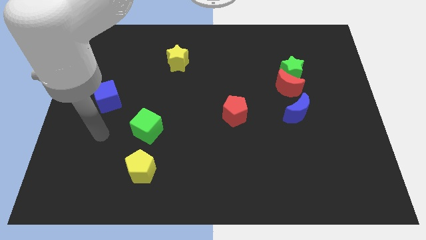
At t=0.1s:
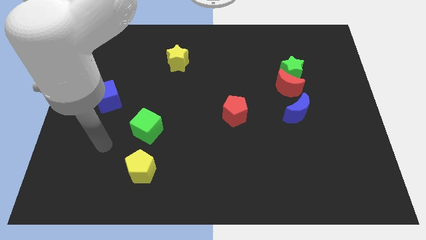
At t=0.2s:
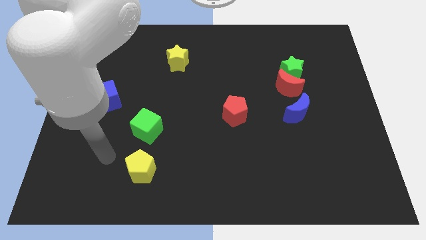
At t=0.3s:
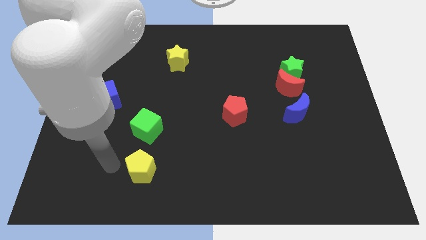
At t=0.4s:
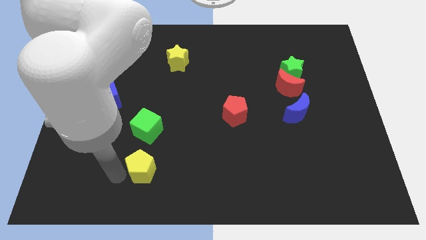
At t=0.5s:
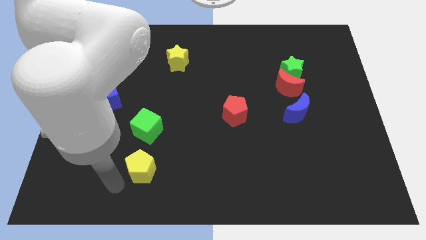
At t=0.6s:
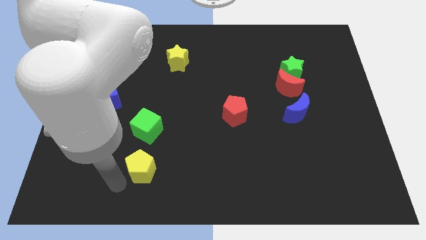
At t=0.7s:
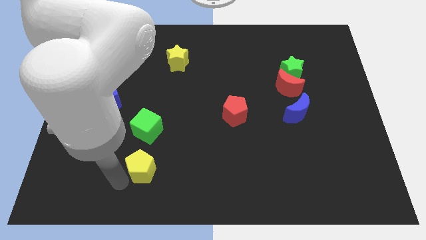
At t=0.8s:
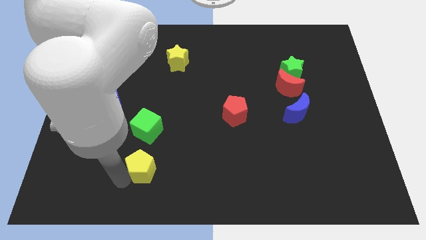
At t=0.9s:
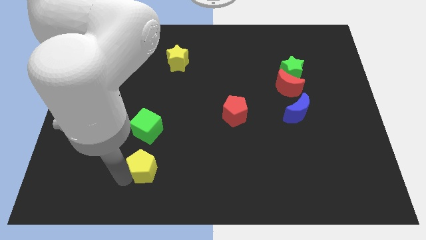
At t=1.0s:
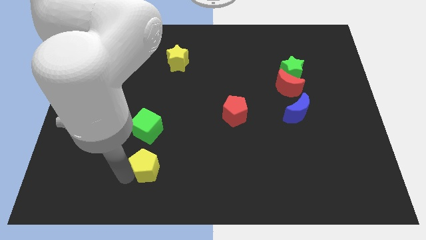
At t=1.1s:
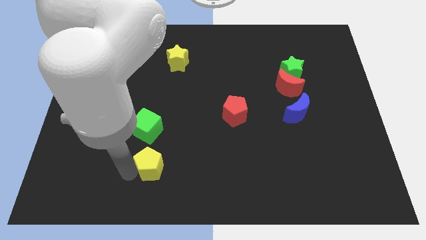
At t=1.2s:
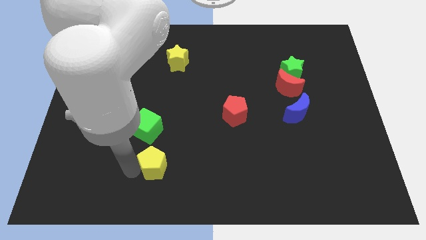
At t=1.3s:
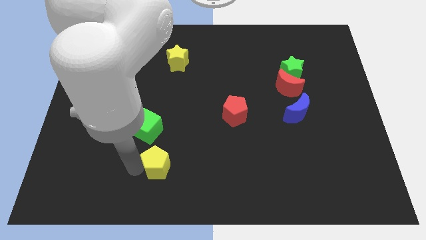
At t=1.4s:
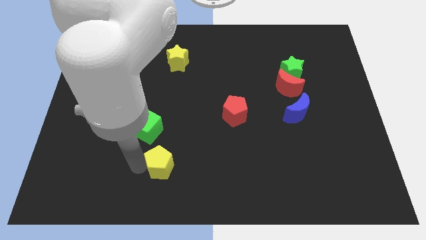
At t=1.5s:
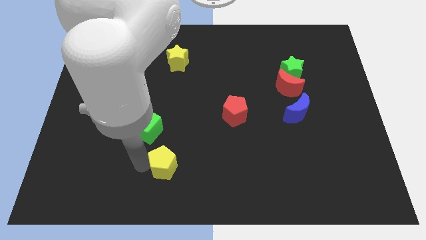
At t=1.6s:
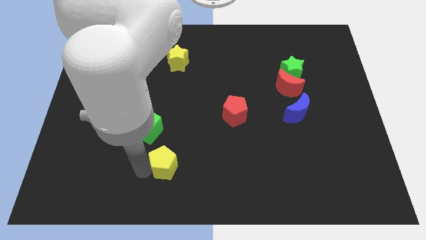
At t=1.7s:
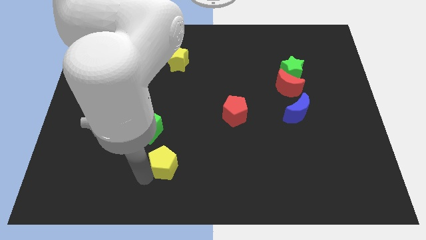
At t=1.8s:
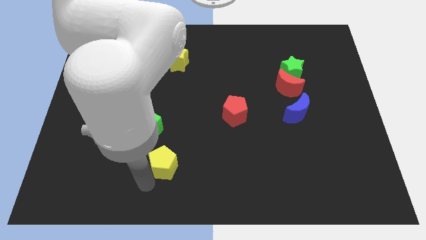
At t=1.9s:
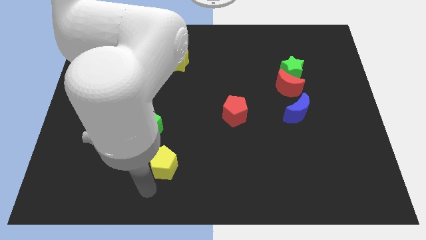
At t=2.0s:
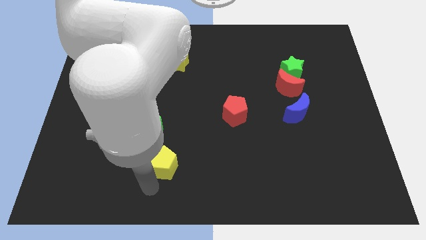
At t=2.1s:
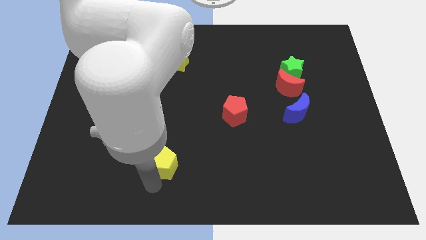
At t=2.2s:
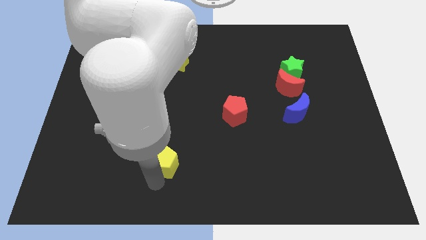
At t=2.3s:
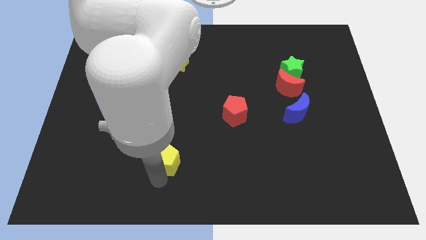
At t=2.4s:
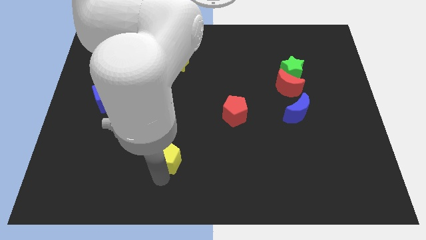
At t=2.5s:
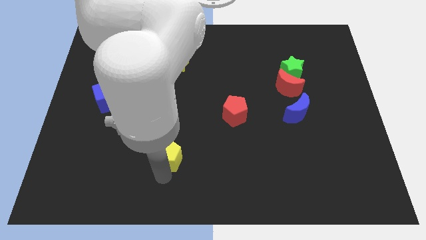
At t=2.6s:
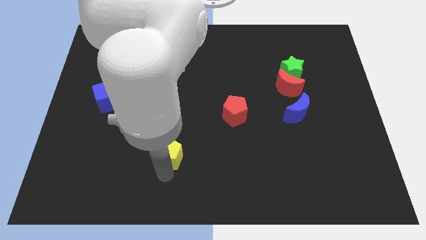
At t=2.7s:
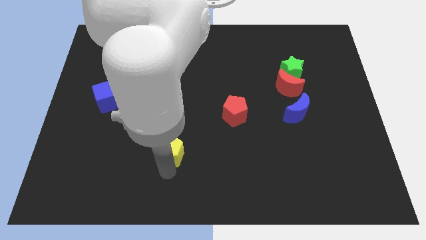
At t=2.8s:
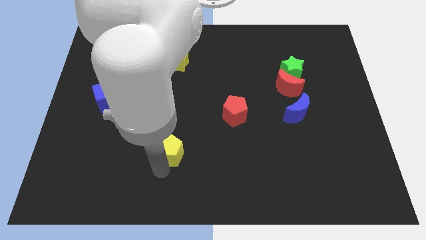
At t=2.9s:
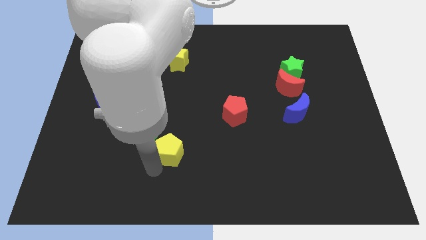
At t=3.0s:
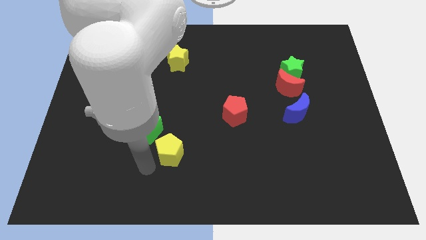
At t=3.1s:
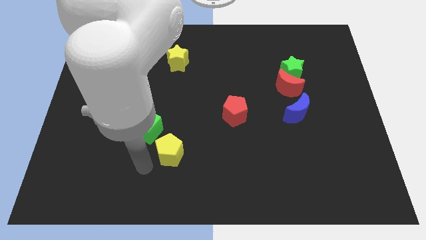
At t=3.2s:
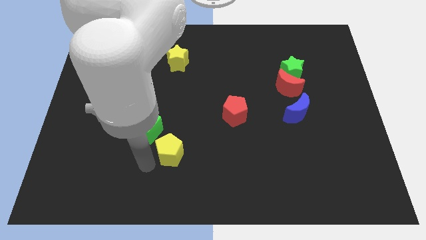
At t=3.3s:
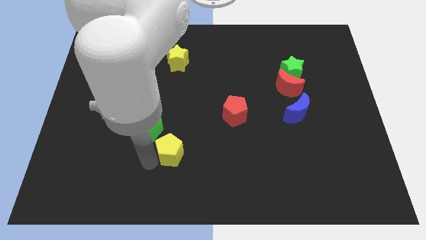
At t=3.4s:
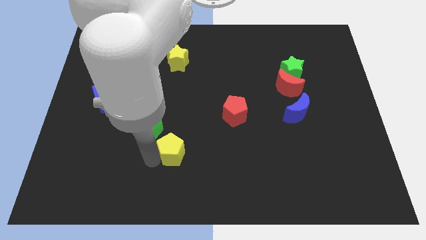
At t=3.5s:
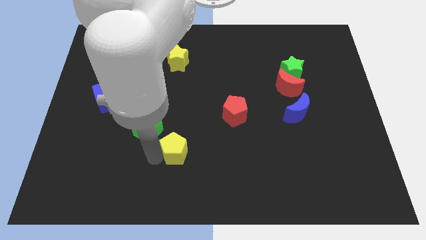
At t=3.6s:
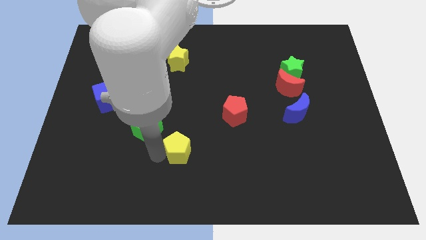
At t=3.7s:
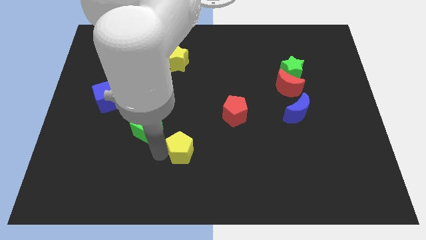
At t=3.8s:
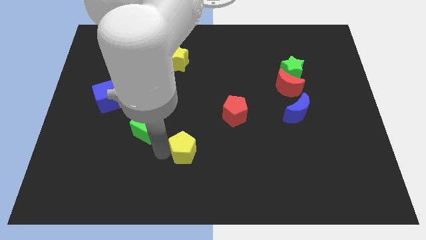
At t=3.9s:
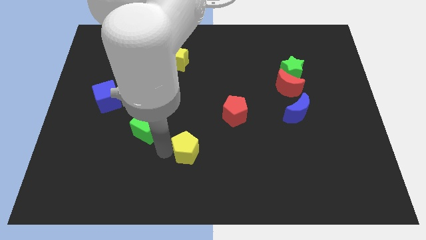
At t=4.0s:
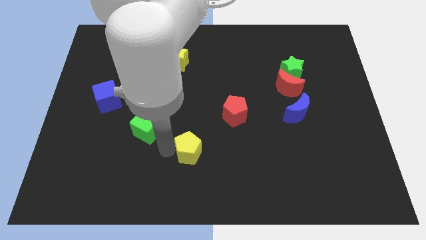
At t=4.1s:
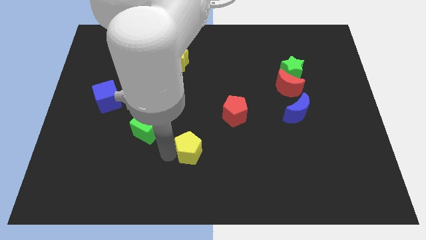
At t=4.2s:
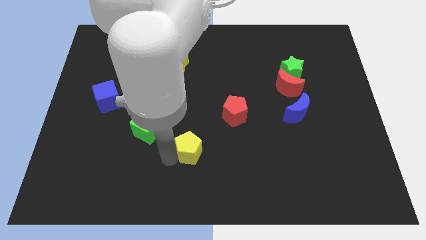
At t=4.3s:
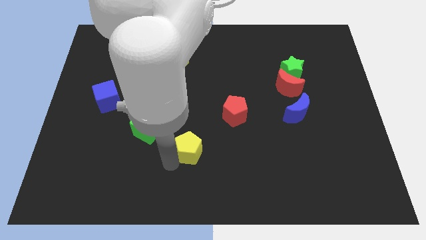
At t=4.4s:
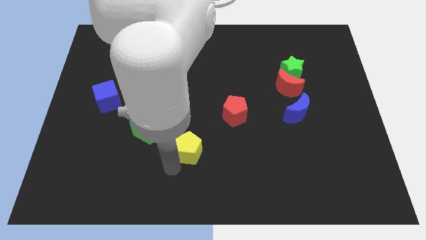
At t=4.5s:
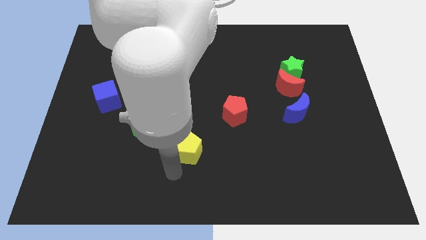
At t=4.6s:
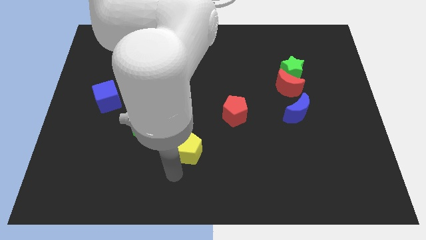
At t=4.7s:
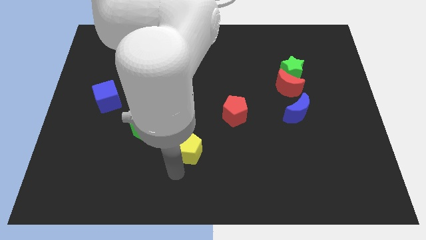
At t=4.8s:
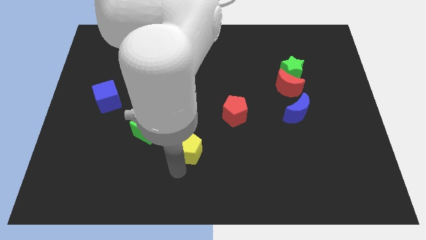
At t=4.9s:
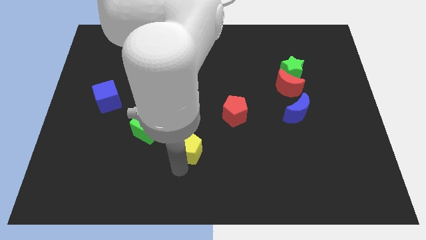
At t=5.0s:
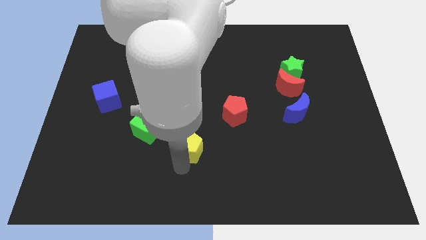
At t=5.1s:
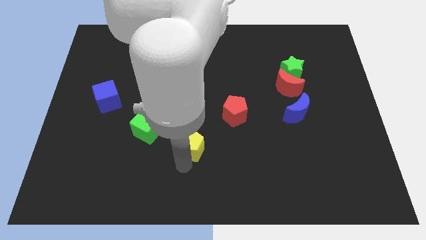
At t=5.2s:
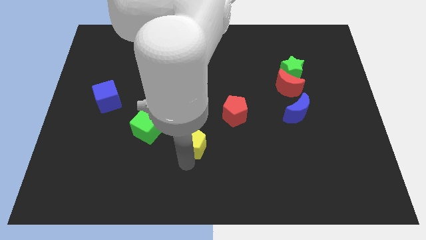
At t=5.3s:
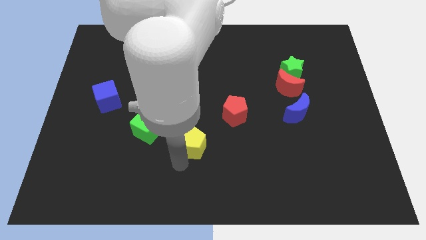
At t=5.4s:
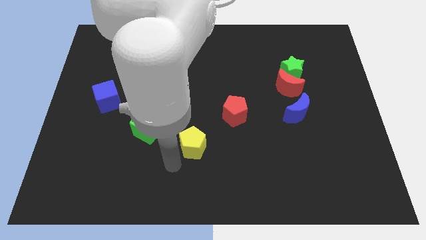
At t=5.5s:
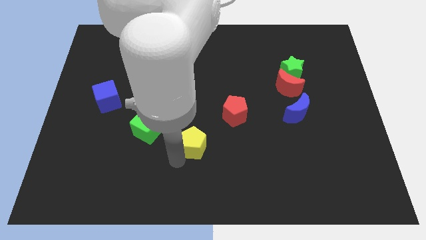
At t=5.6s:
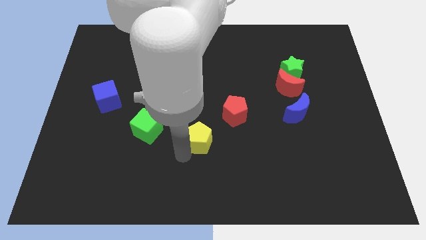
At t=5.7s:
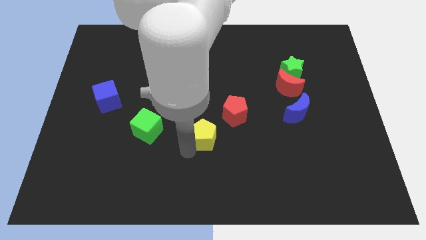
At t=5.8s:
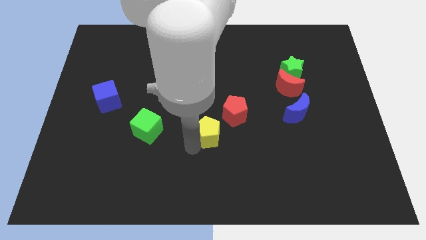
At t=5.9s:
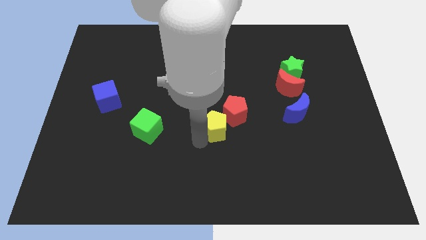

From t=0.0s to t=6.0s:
put the yellow pentagon next to the red pentagon

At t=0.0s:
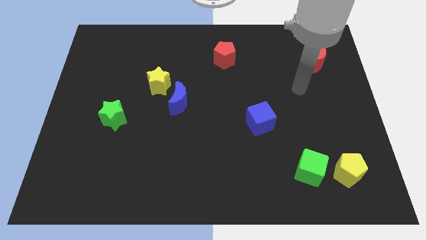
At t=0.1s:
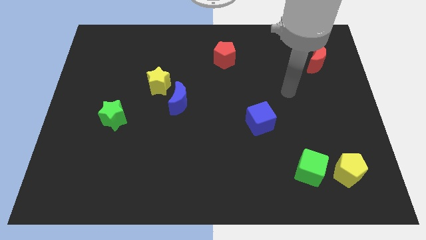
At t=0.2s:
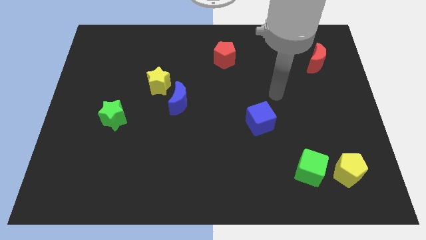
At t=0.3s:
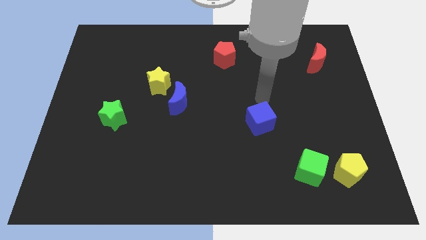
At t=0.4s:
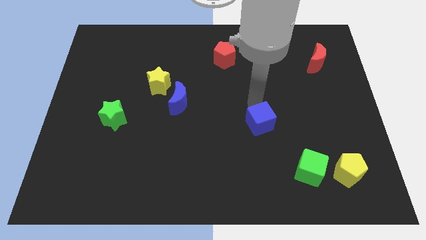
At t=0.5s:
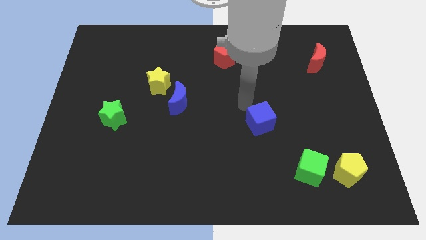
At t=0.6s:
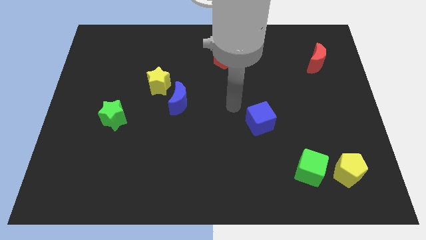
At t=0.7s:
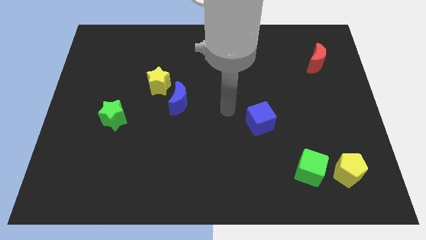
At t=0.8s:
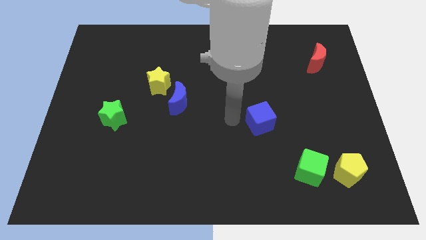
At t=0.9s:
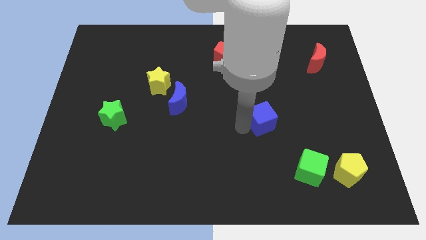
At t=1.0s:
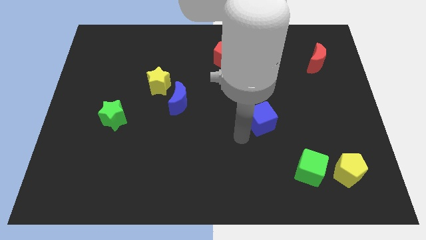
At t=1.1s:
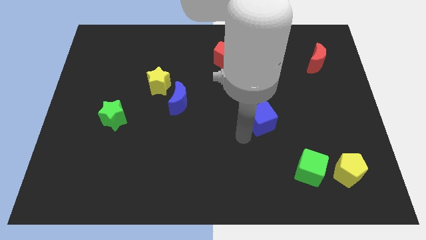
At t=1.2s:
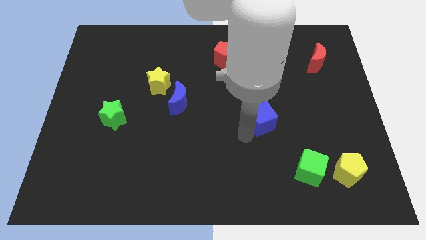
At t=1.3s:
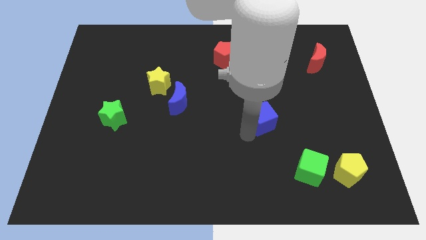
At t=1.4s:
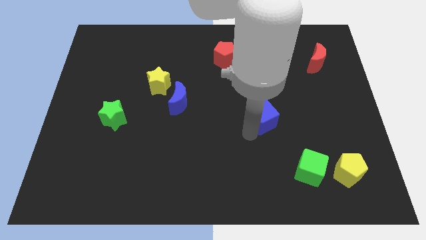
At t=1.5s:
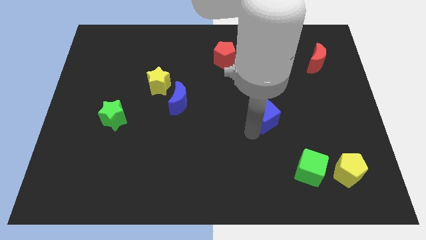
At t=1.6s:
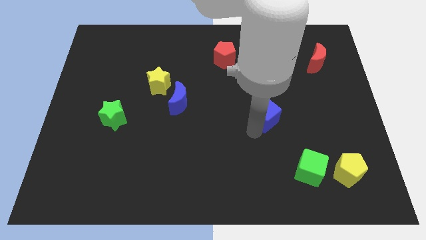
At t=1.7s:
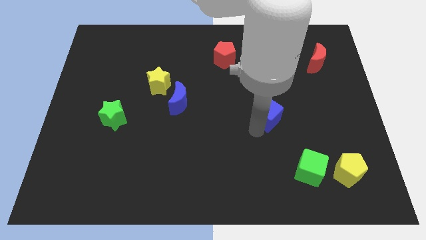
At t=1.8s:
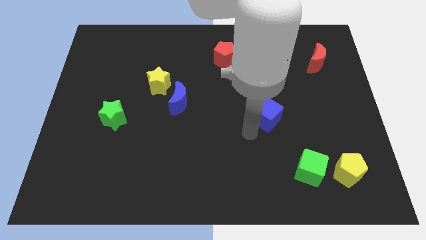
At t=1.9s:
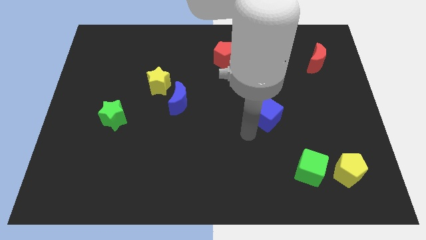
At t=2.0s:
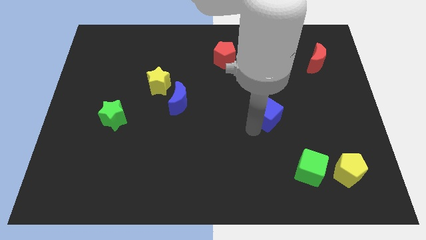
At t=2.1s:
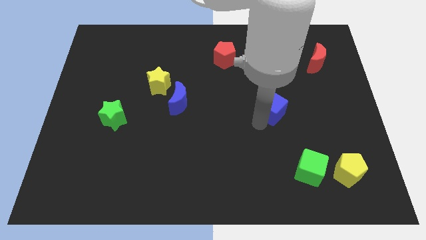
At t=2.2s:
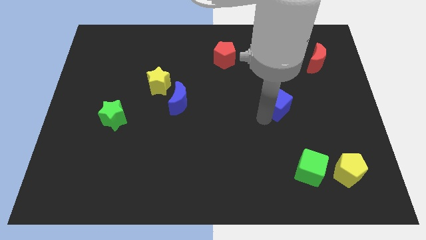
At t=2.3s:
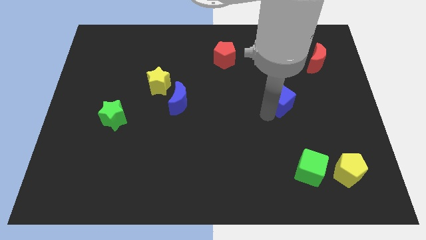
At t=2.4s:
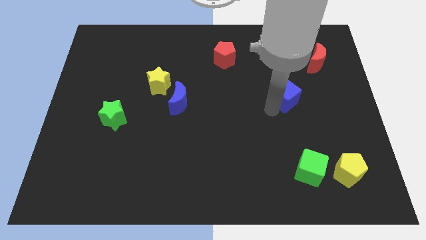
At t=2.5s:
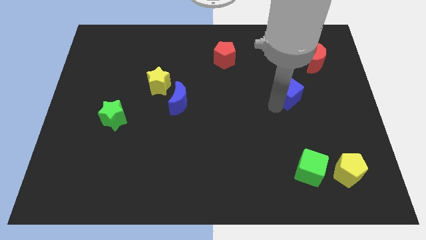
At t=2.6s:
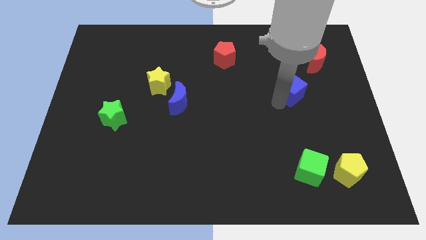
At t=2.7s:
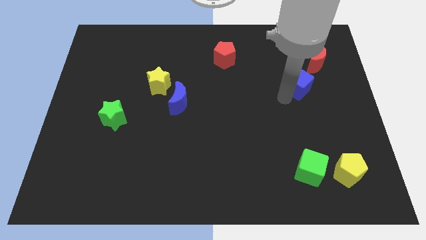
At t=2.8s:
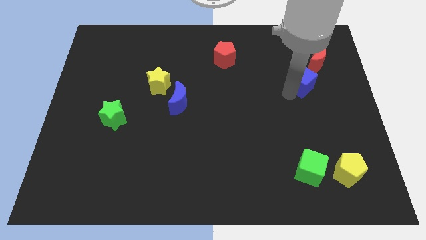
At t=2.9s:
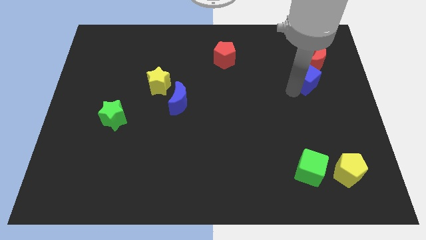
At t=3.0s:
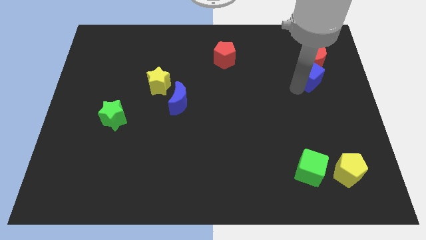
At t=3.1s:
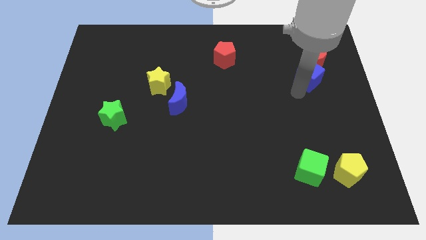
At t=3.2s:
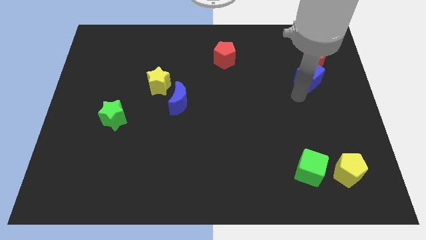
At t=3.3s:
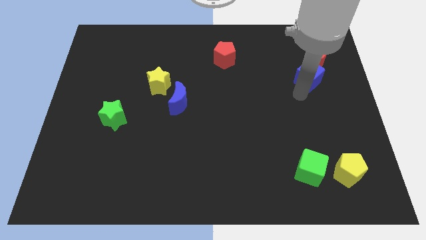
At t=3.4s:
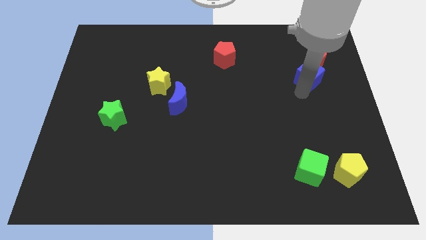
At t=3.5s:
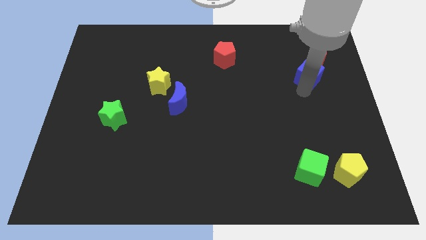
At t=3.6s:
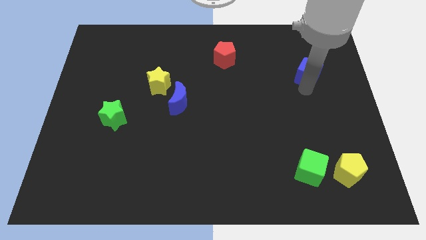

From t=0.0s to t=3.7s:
push the blue cube next to the red moon
